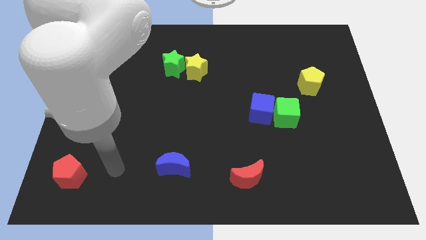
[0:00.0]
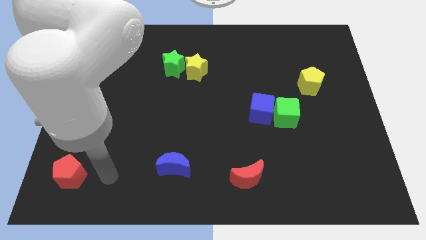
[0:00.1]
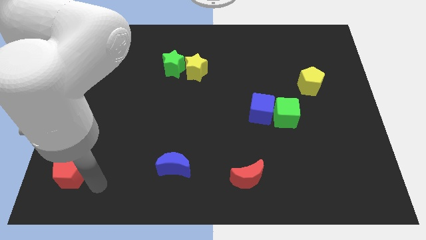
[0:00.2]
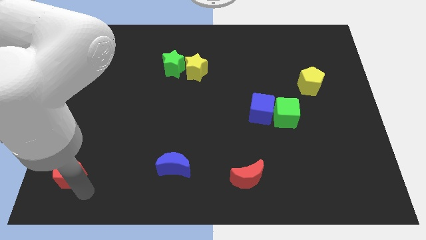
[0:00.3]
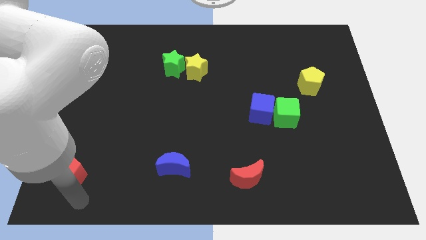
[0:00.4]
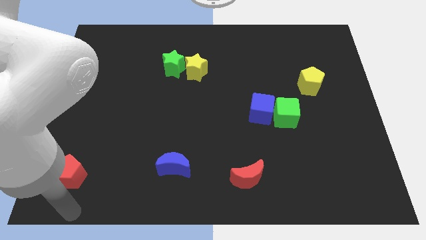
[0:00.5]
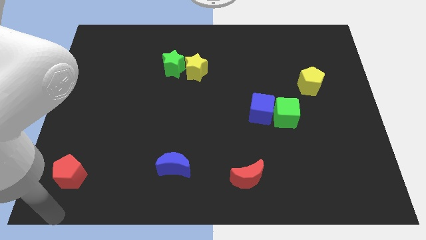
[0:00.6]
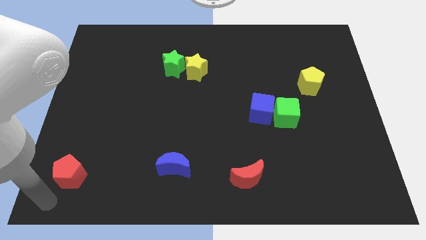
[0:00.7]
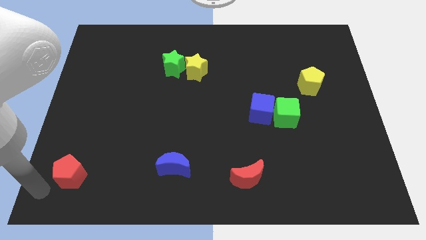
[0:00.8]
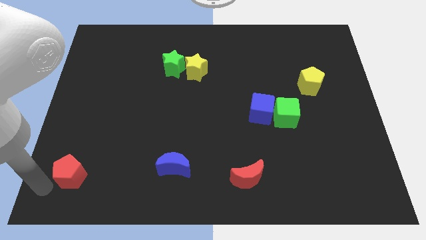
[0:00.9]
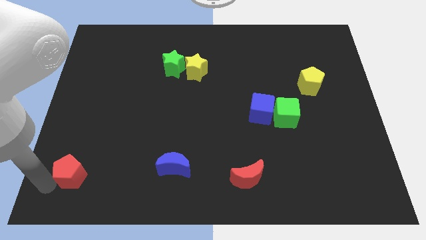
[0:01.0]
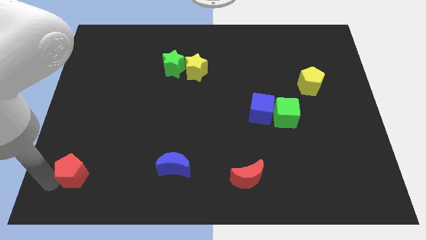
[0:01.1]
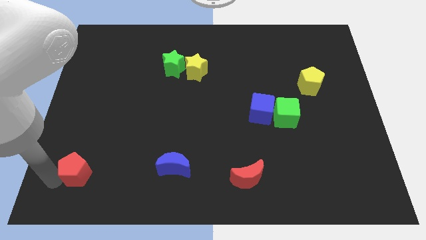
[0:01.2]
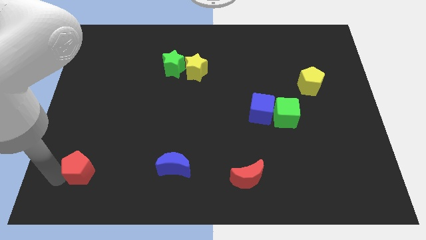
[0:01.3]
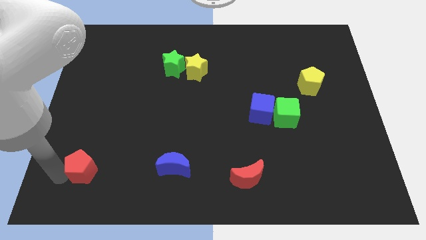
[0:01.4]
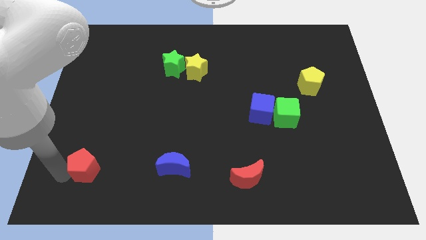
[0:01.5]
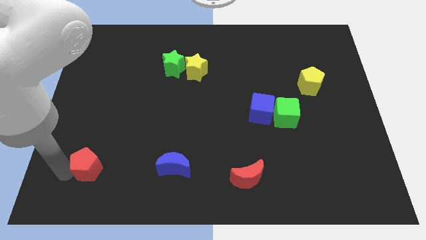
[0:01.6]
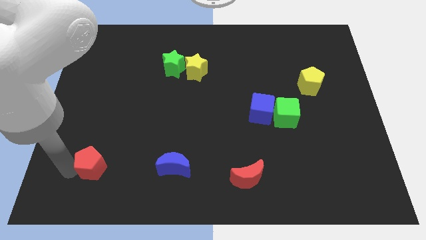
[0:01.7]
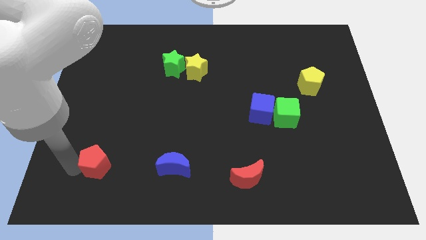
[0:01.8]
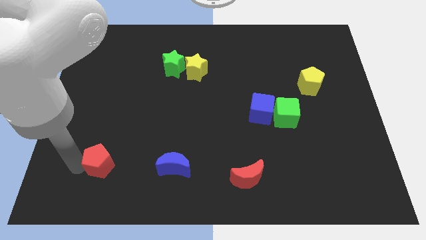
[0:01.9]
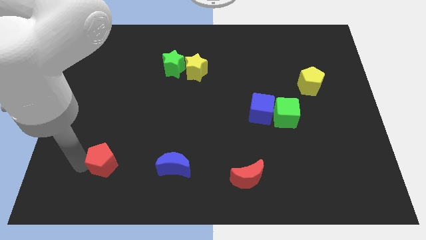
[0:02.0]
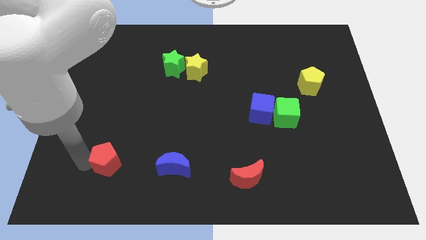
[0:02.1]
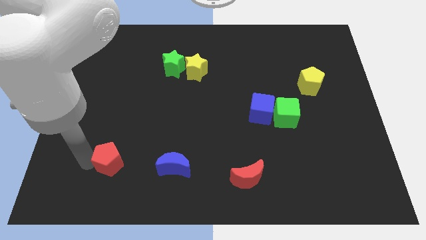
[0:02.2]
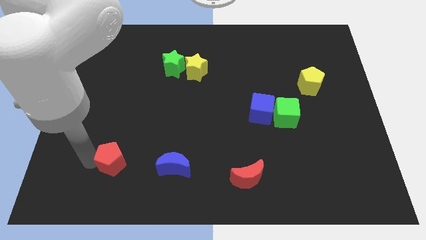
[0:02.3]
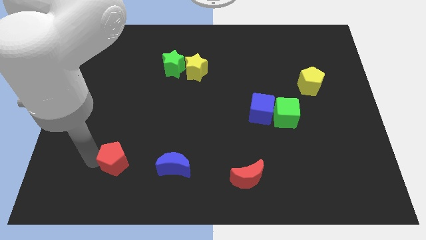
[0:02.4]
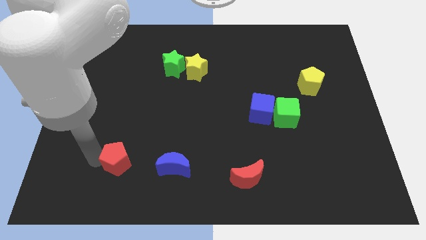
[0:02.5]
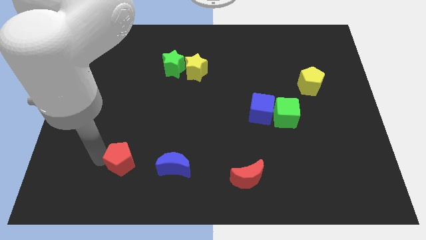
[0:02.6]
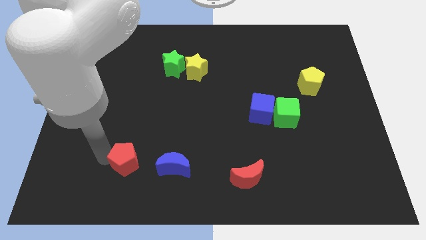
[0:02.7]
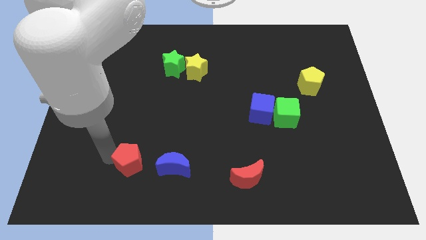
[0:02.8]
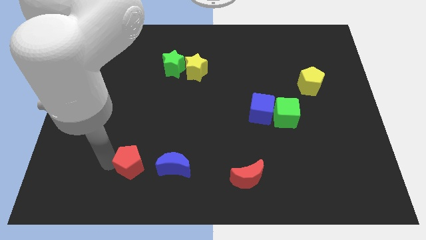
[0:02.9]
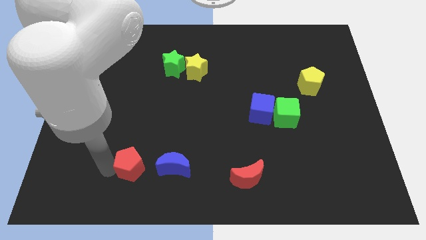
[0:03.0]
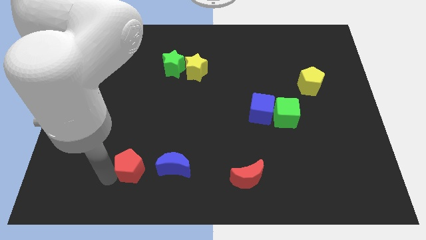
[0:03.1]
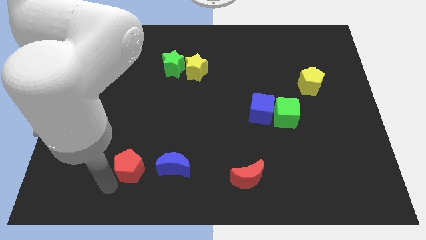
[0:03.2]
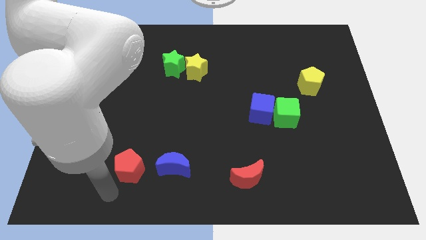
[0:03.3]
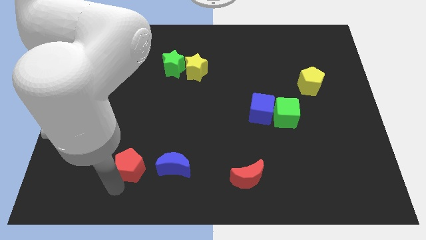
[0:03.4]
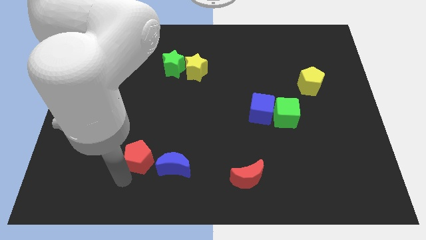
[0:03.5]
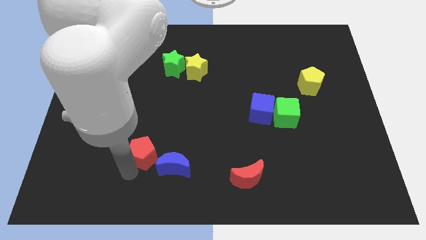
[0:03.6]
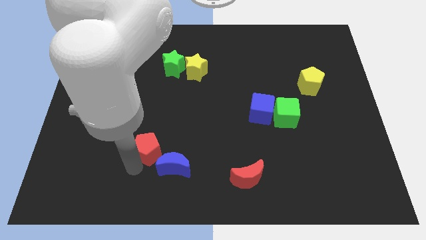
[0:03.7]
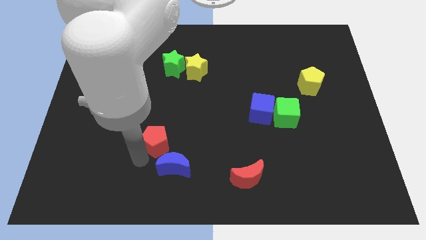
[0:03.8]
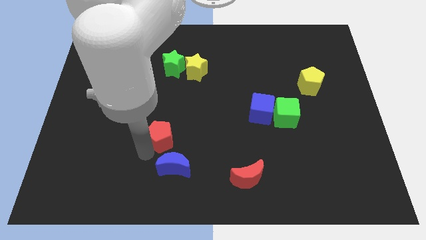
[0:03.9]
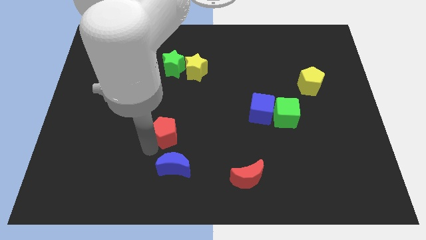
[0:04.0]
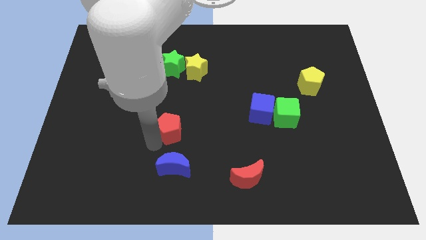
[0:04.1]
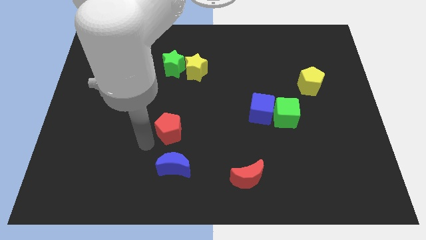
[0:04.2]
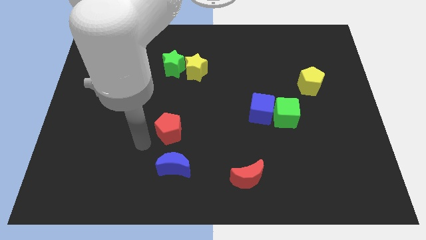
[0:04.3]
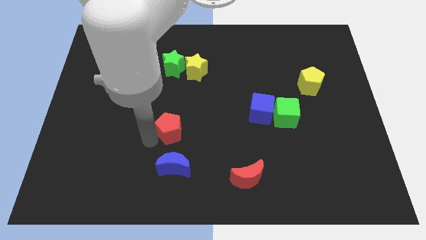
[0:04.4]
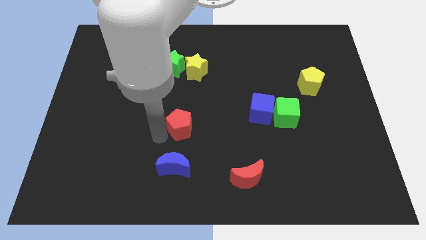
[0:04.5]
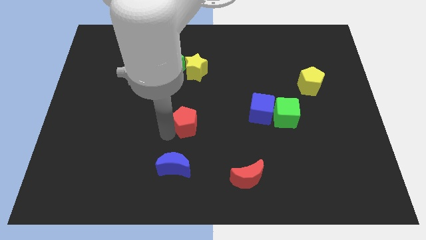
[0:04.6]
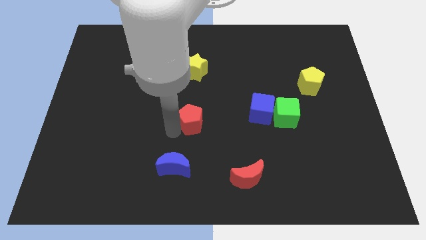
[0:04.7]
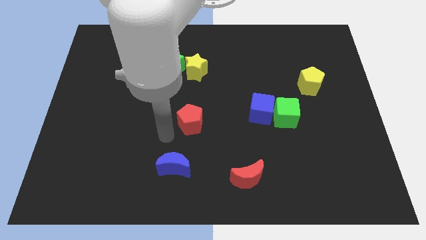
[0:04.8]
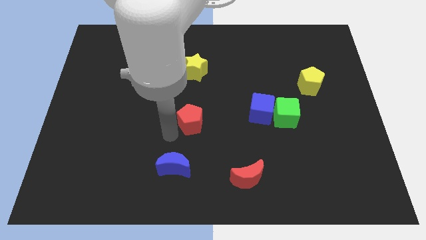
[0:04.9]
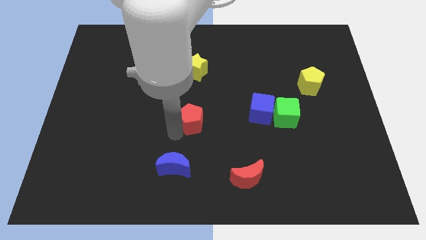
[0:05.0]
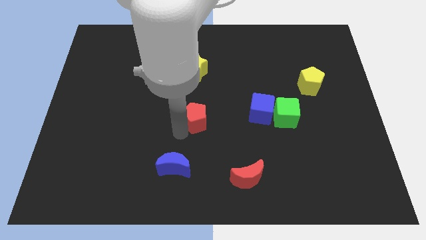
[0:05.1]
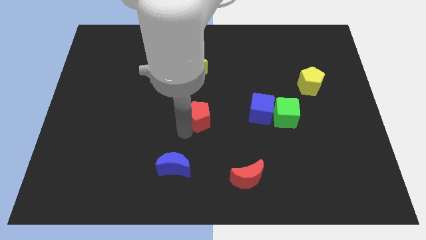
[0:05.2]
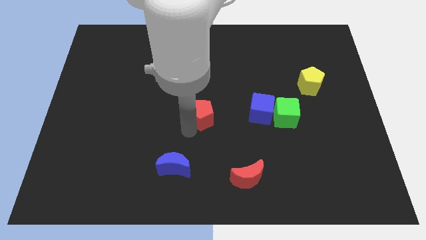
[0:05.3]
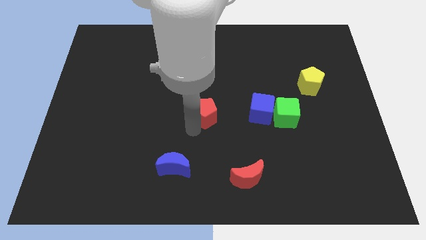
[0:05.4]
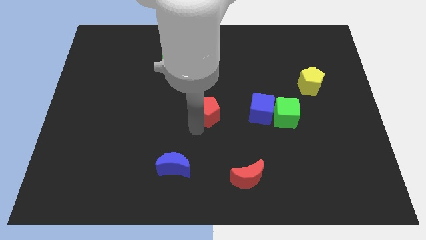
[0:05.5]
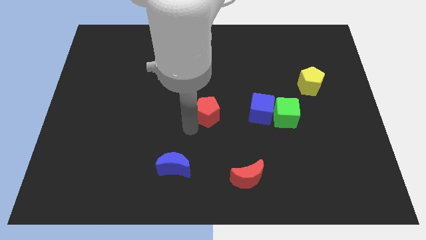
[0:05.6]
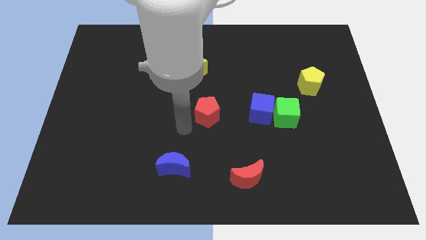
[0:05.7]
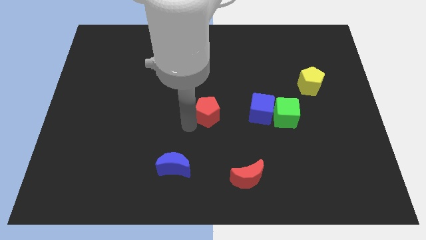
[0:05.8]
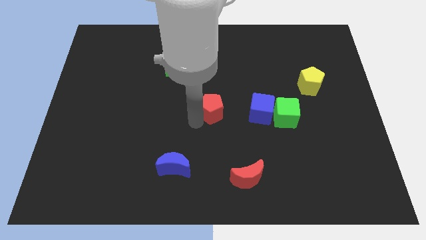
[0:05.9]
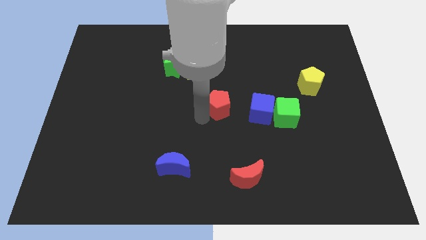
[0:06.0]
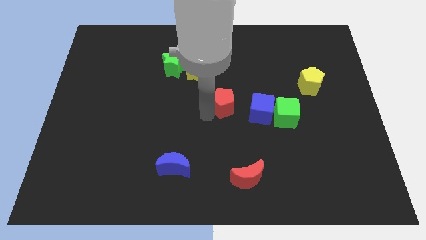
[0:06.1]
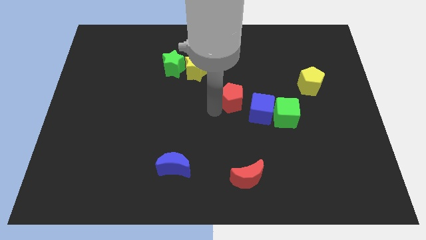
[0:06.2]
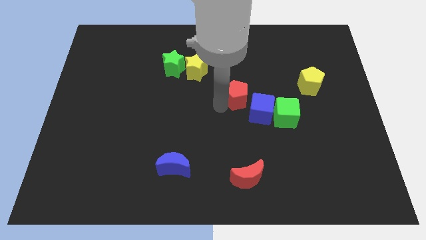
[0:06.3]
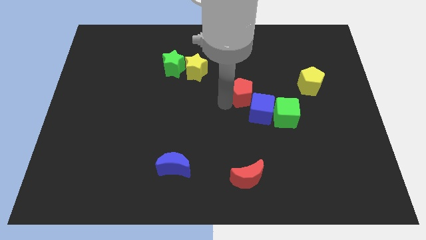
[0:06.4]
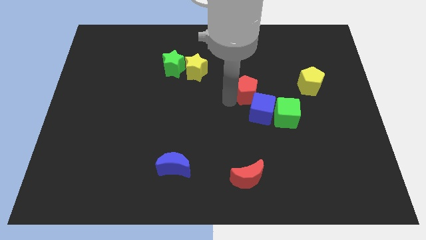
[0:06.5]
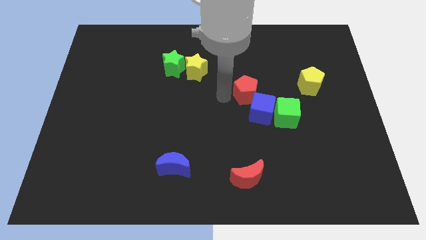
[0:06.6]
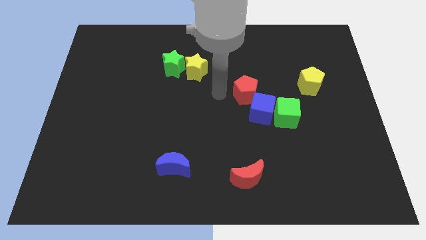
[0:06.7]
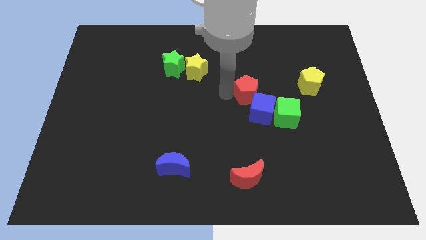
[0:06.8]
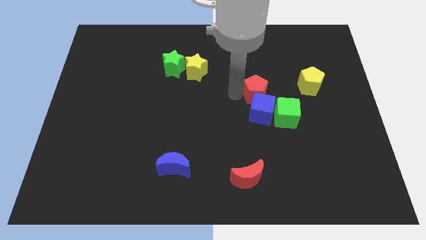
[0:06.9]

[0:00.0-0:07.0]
move the red pentagon to the top right of the blue cube
